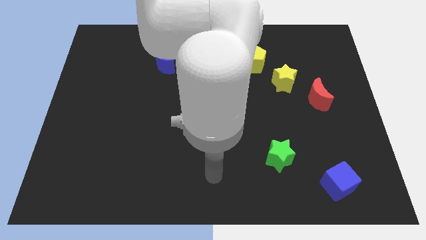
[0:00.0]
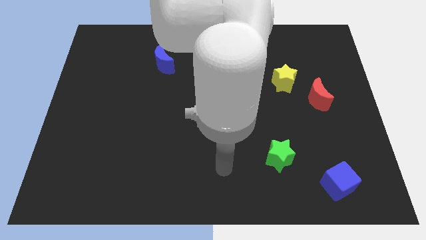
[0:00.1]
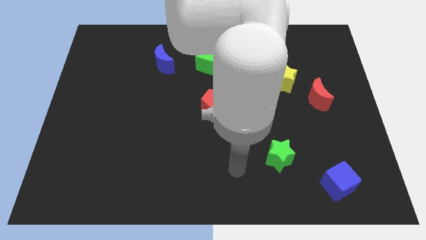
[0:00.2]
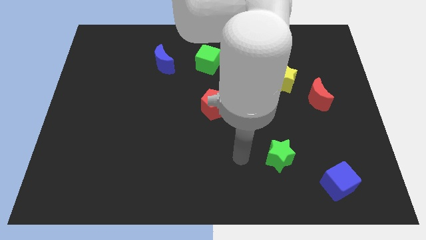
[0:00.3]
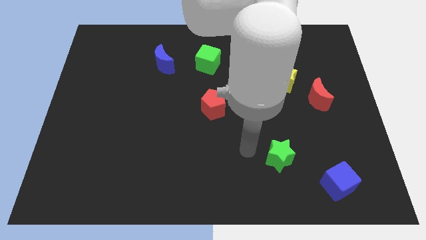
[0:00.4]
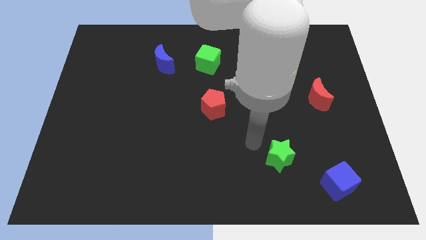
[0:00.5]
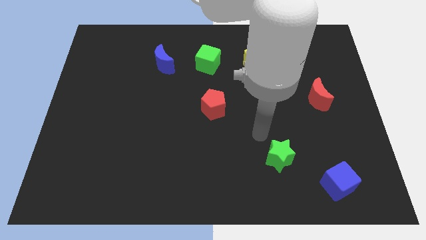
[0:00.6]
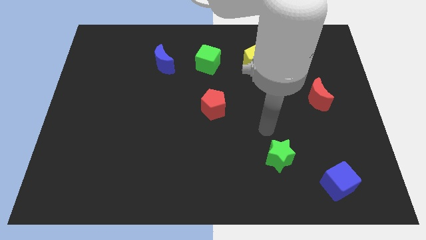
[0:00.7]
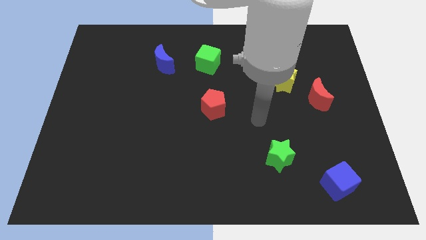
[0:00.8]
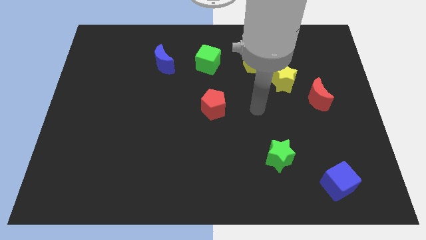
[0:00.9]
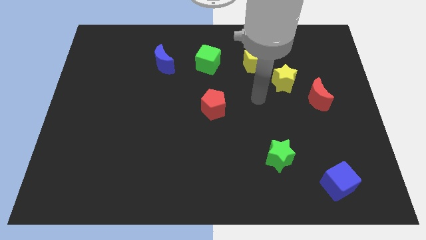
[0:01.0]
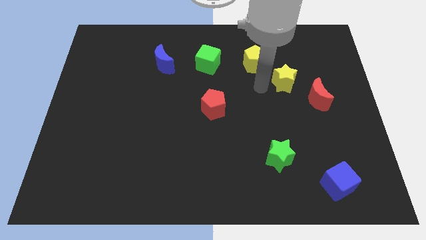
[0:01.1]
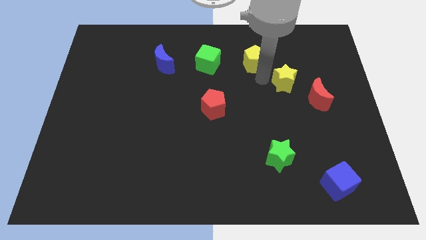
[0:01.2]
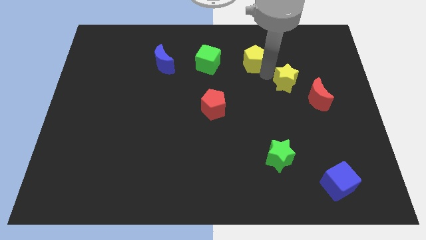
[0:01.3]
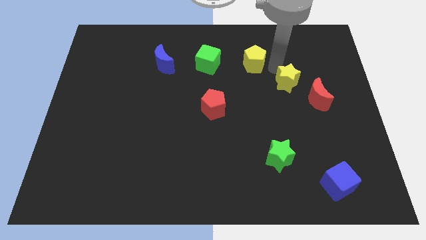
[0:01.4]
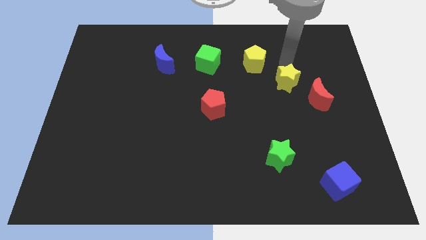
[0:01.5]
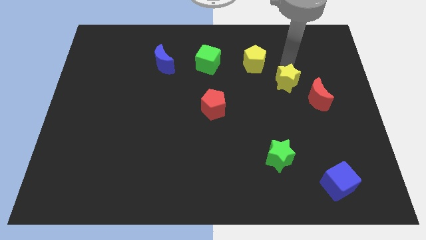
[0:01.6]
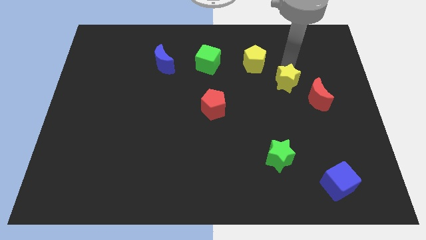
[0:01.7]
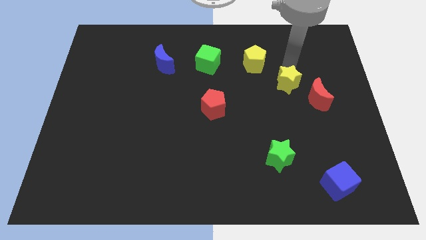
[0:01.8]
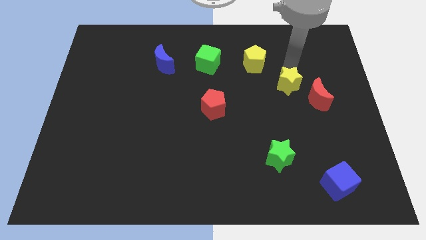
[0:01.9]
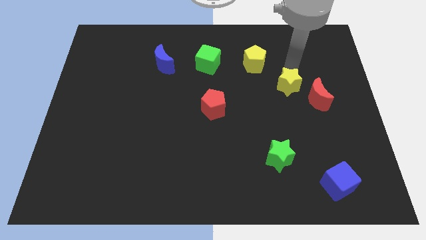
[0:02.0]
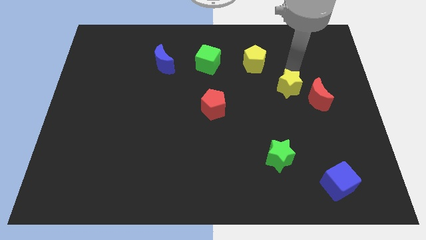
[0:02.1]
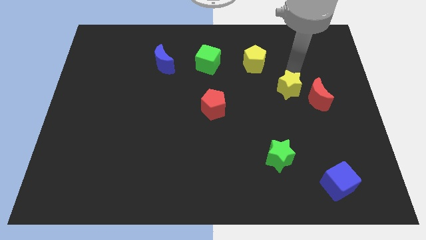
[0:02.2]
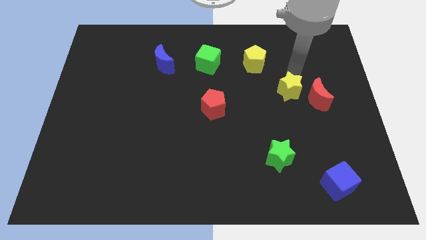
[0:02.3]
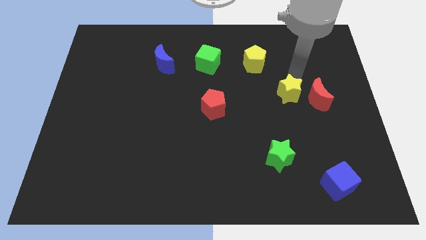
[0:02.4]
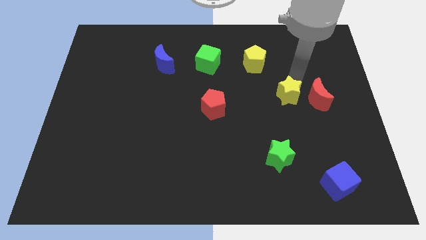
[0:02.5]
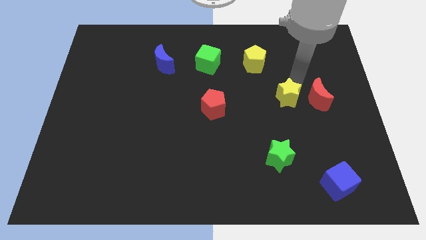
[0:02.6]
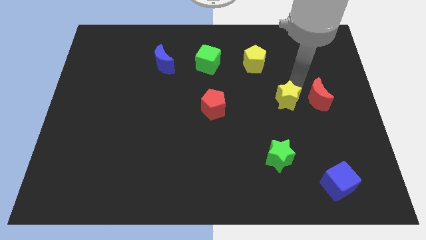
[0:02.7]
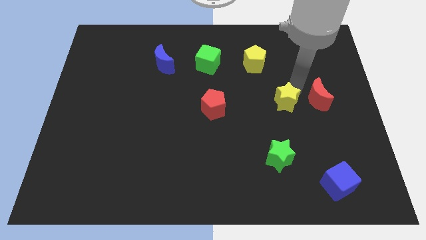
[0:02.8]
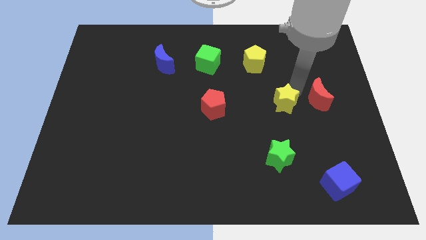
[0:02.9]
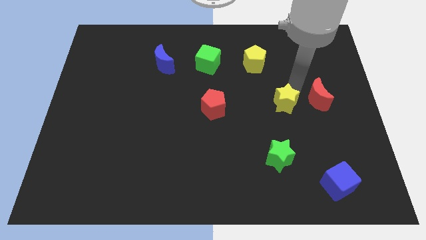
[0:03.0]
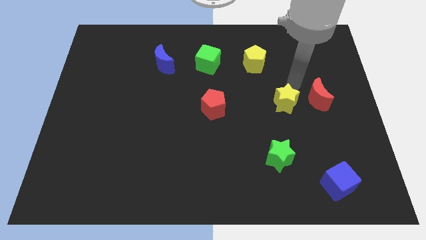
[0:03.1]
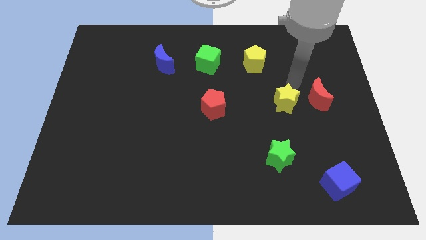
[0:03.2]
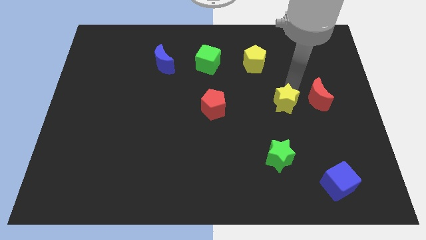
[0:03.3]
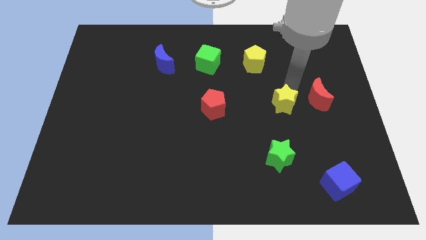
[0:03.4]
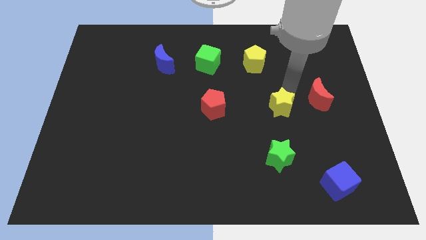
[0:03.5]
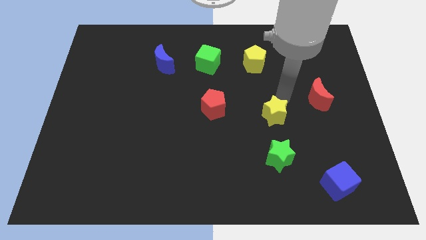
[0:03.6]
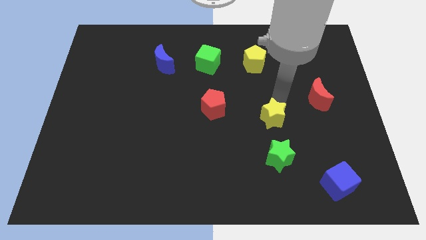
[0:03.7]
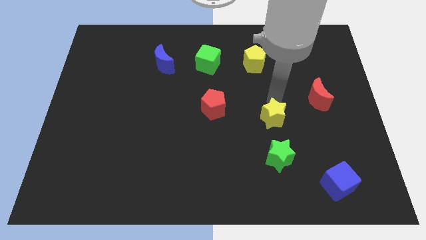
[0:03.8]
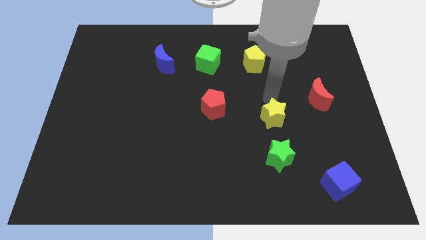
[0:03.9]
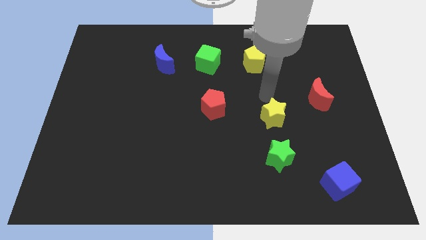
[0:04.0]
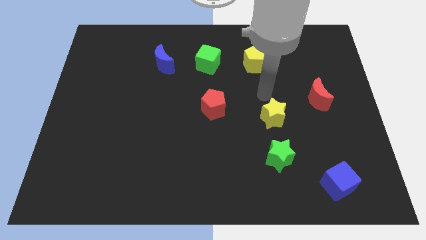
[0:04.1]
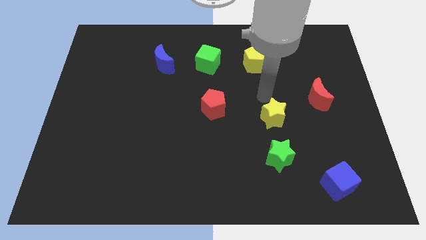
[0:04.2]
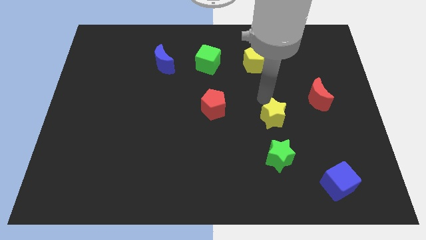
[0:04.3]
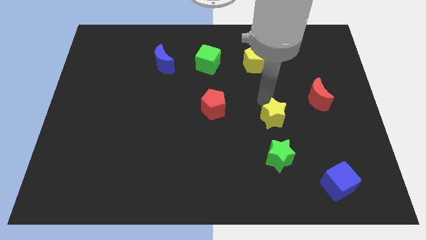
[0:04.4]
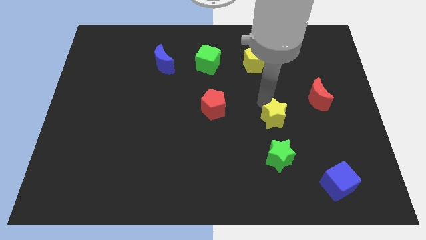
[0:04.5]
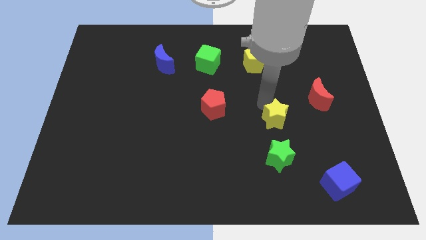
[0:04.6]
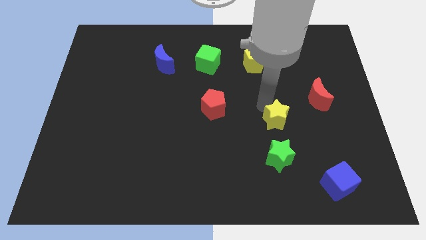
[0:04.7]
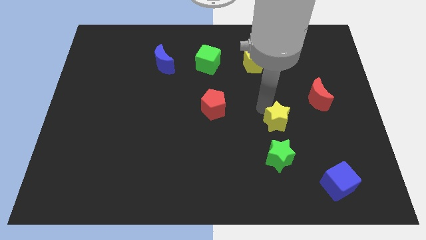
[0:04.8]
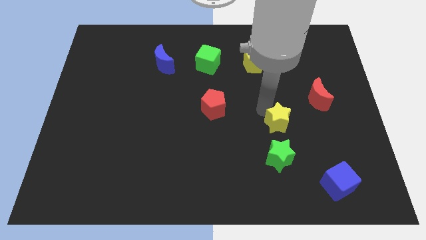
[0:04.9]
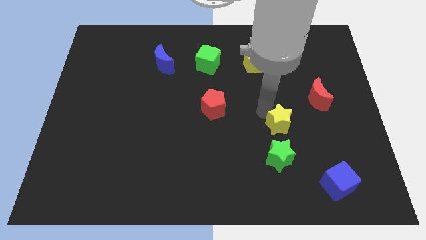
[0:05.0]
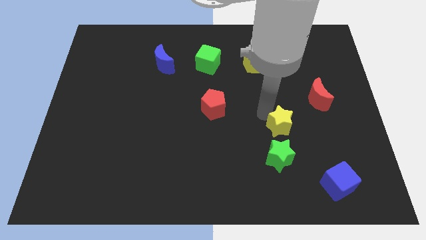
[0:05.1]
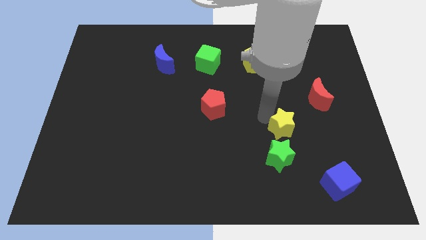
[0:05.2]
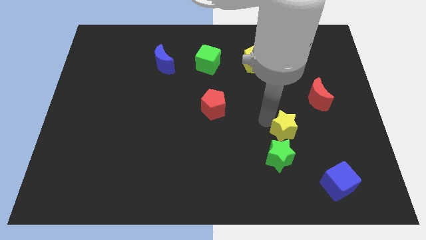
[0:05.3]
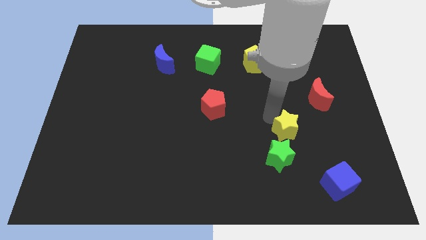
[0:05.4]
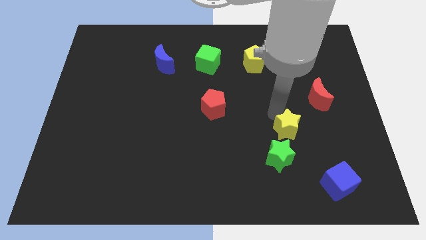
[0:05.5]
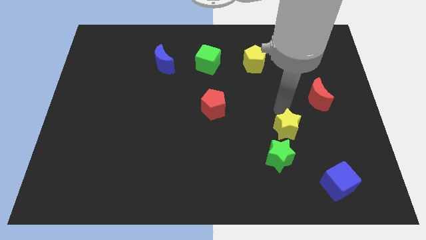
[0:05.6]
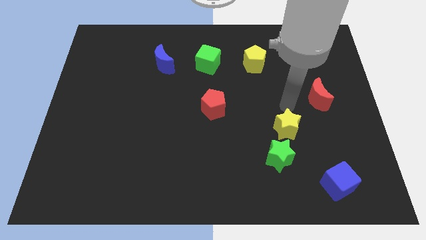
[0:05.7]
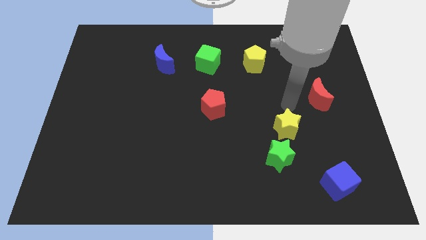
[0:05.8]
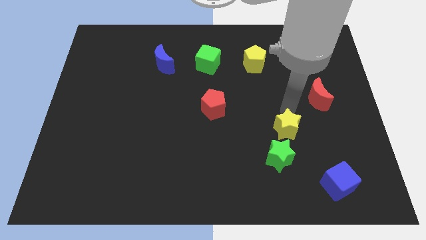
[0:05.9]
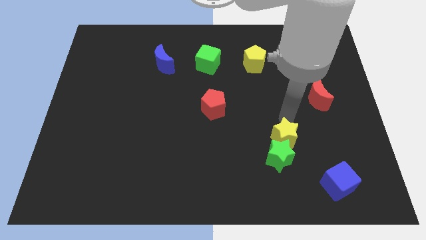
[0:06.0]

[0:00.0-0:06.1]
push the yellow star towards the green star

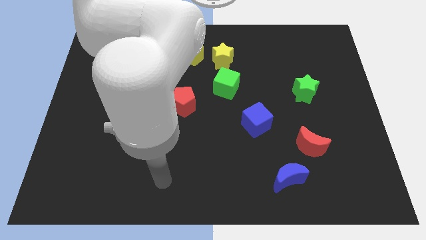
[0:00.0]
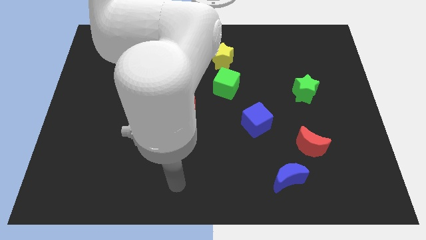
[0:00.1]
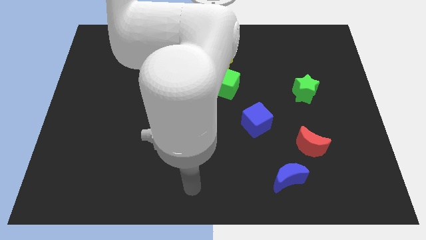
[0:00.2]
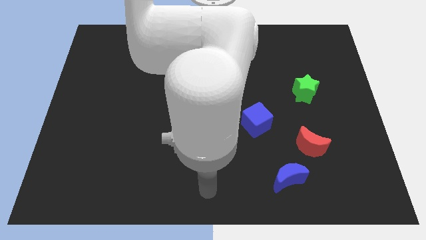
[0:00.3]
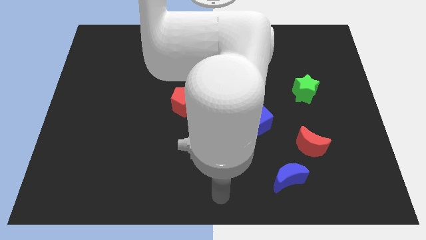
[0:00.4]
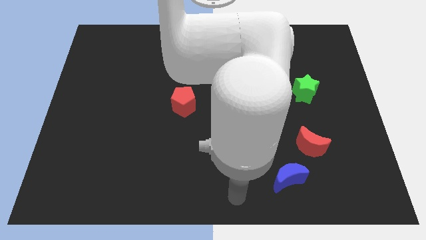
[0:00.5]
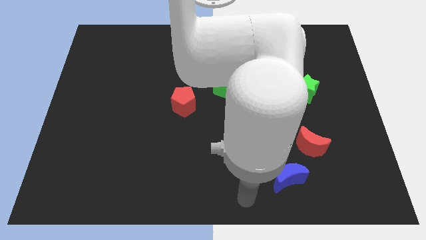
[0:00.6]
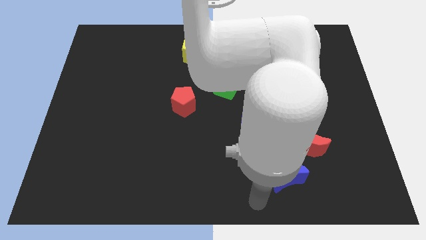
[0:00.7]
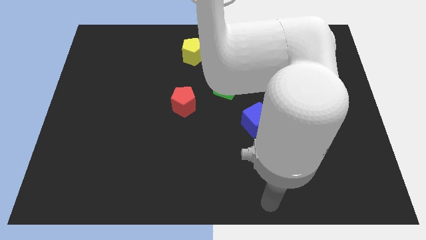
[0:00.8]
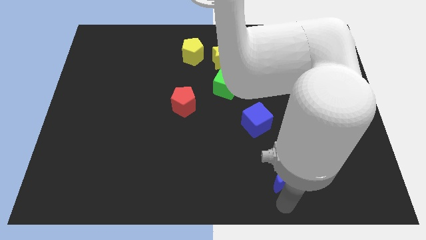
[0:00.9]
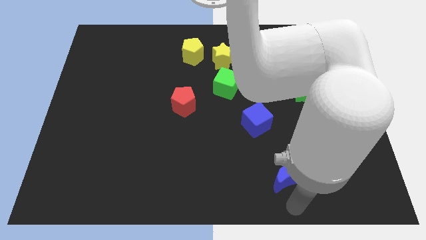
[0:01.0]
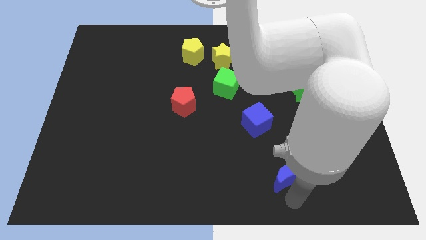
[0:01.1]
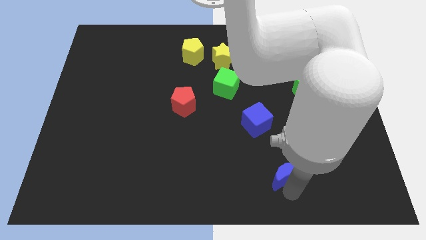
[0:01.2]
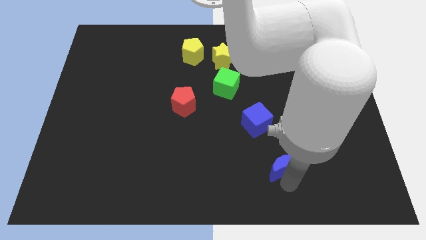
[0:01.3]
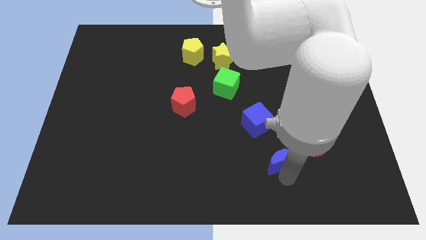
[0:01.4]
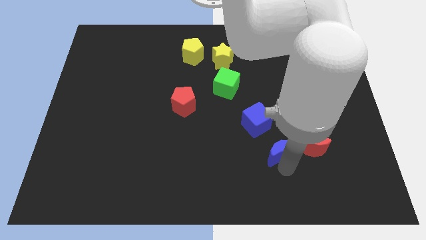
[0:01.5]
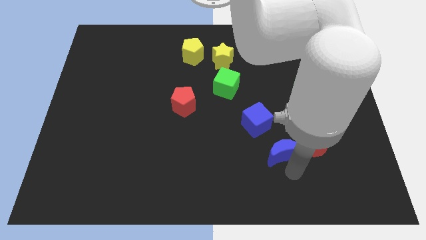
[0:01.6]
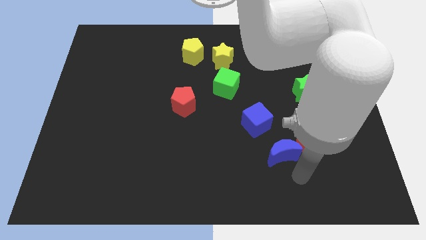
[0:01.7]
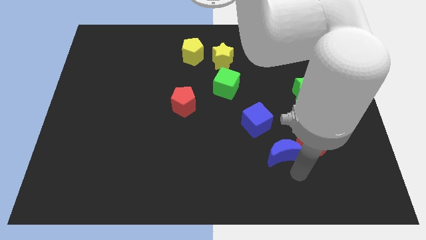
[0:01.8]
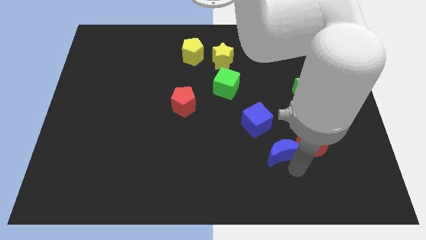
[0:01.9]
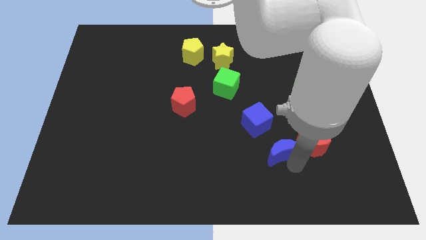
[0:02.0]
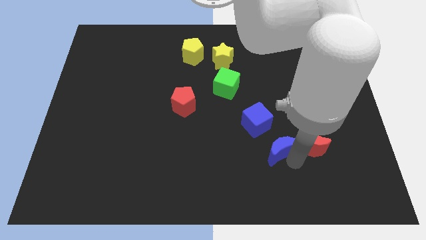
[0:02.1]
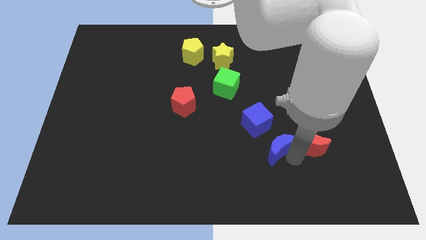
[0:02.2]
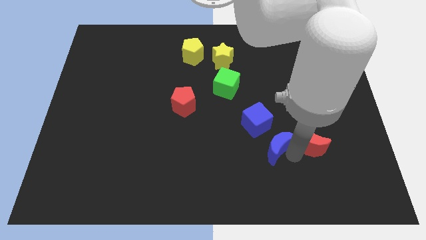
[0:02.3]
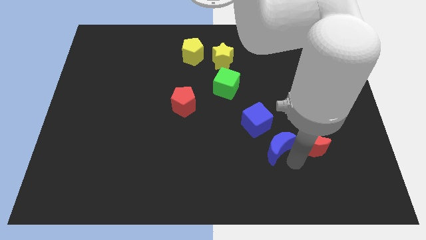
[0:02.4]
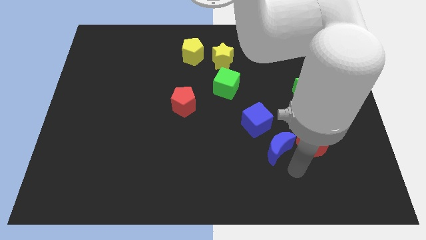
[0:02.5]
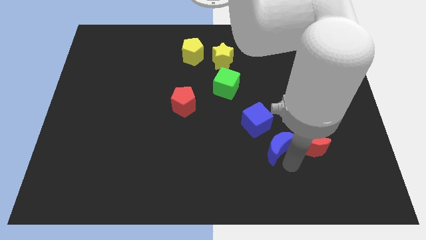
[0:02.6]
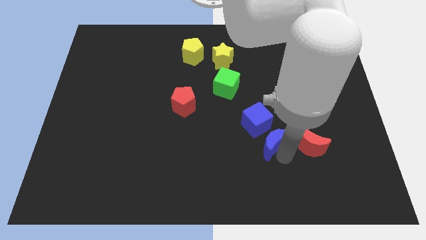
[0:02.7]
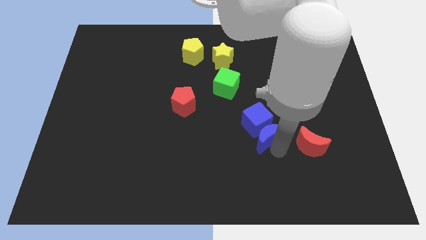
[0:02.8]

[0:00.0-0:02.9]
slide the blue moon close to the blue cube
